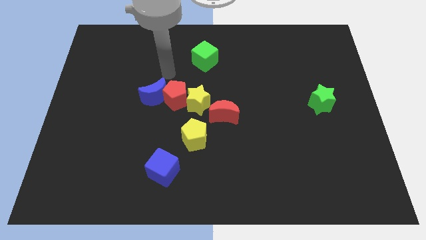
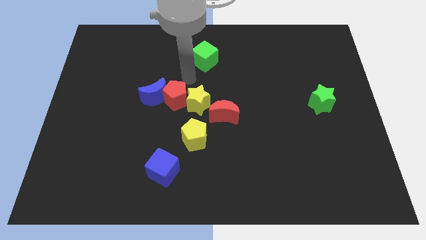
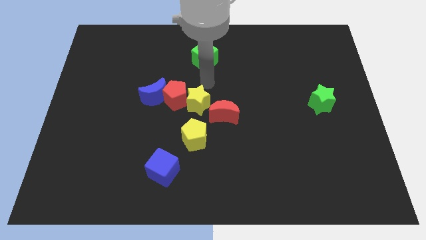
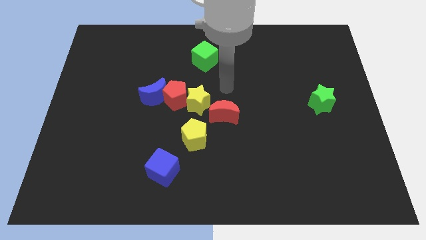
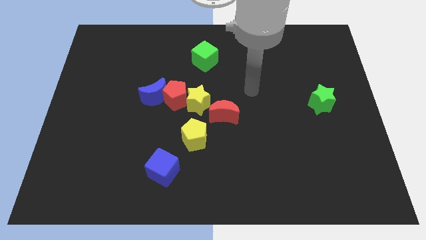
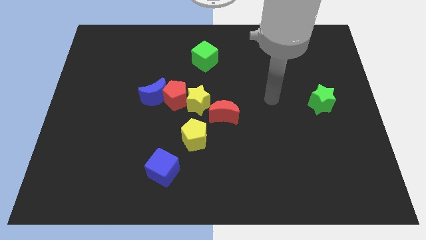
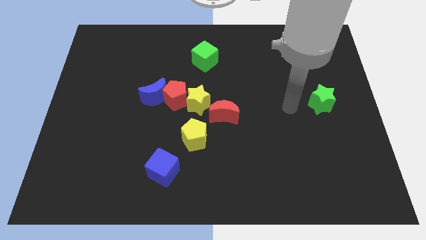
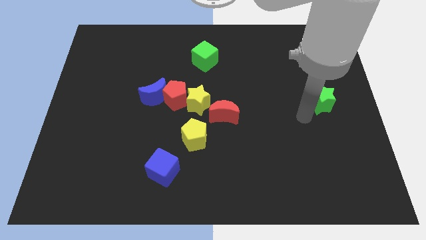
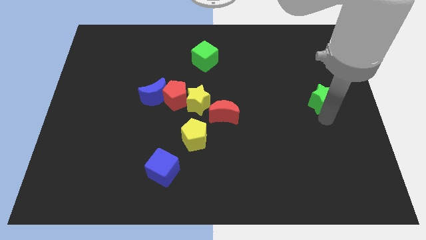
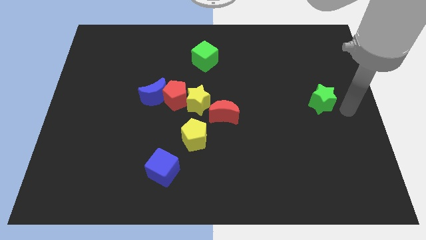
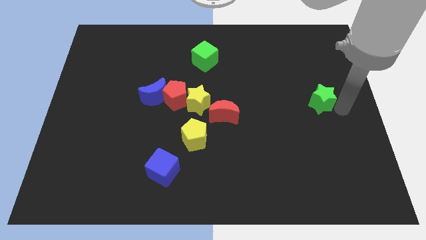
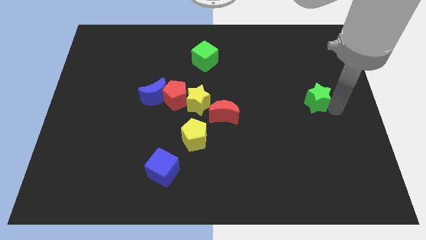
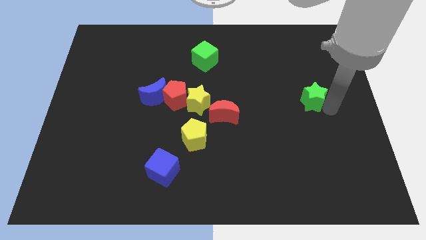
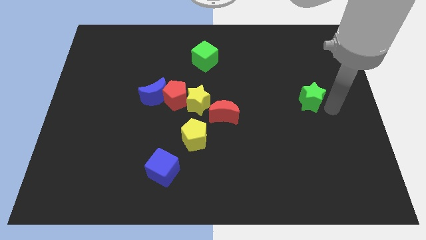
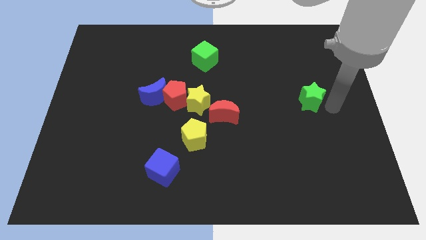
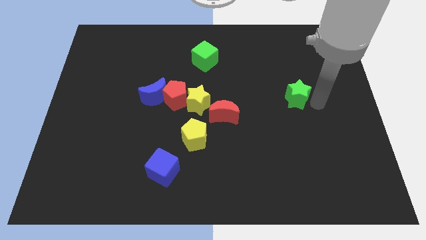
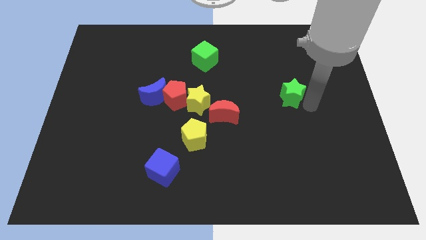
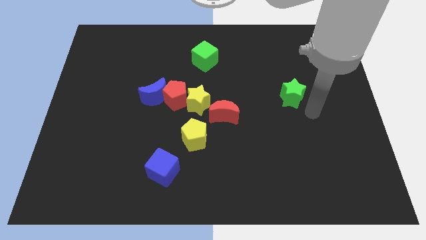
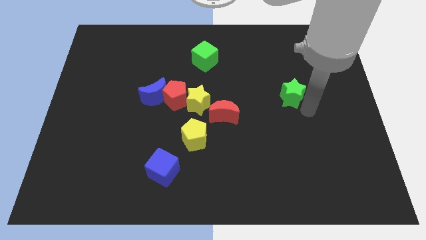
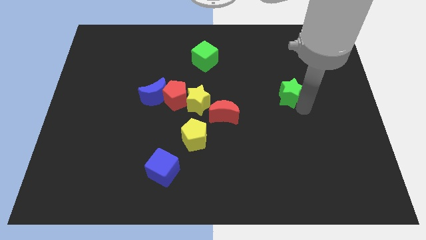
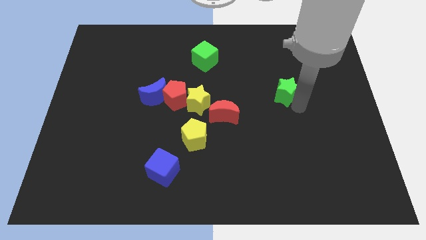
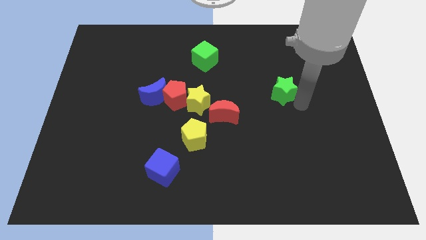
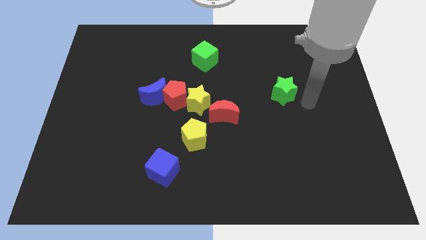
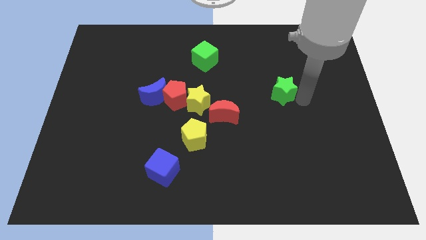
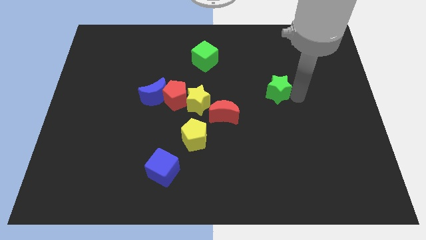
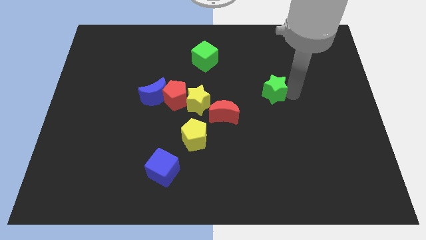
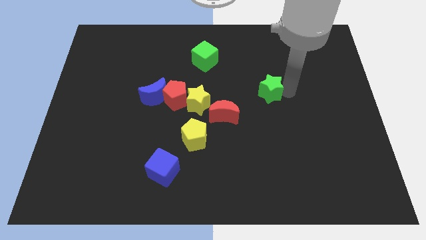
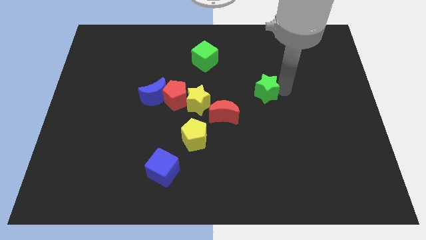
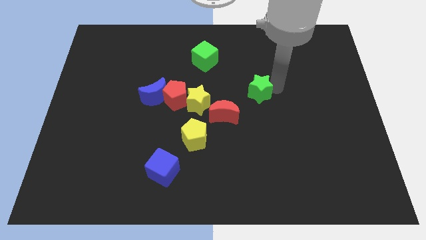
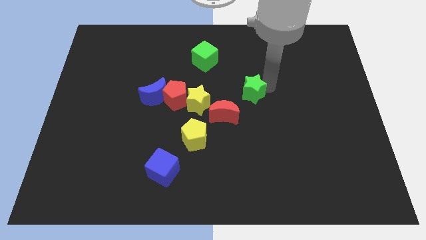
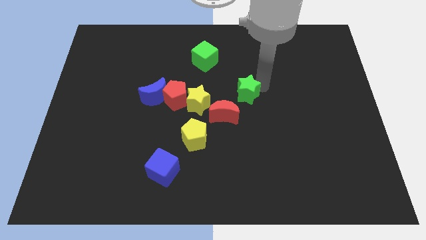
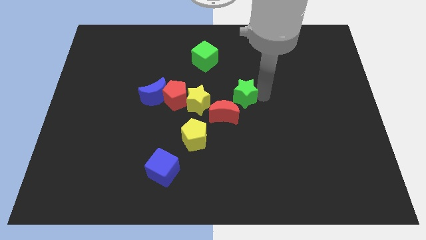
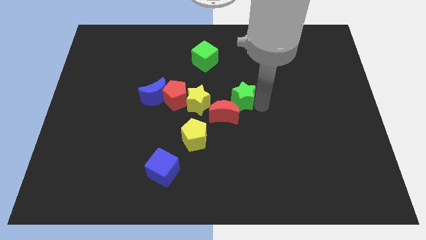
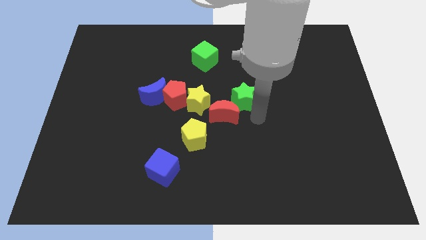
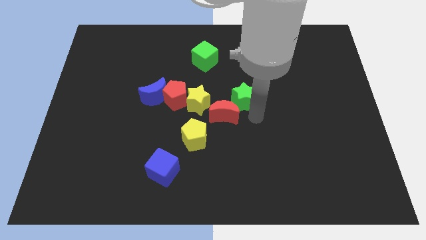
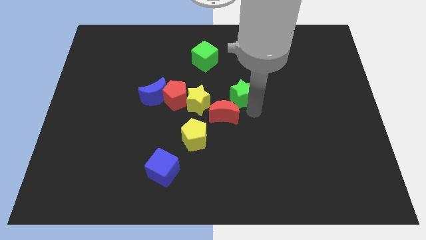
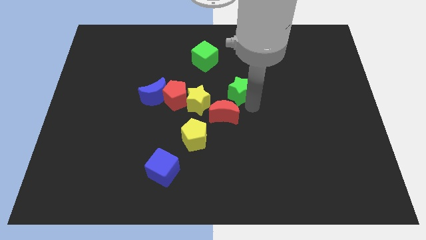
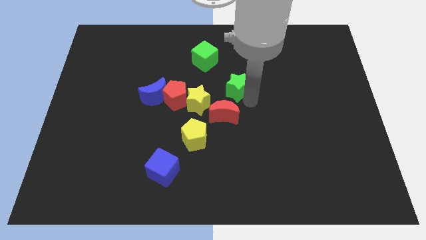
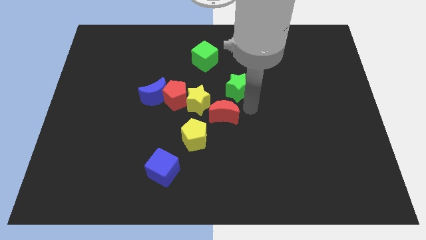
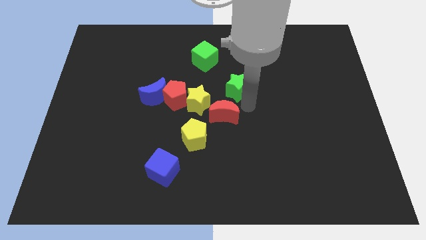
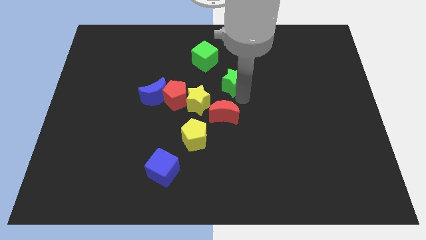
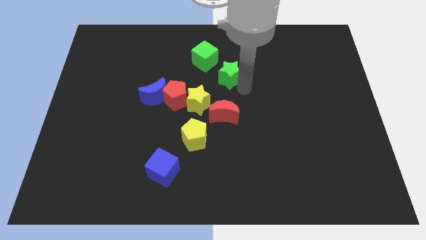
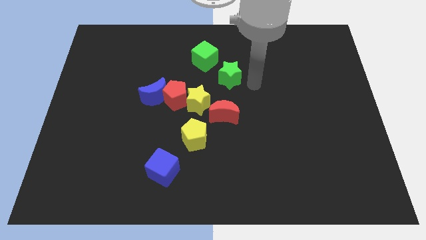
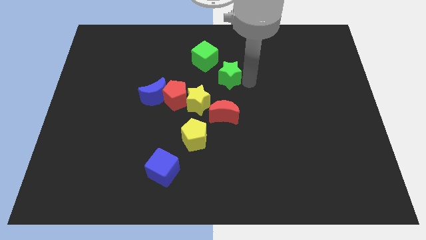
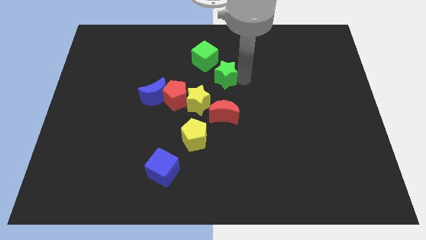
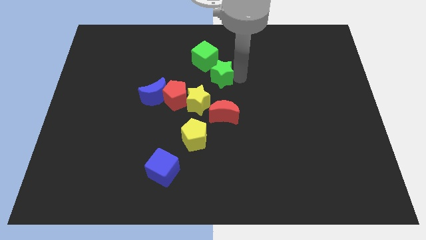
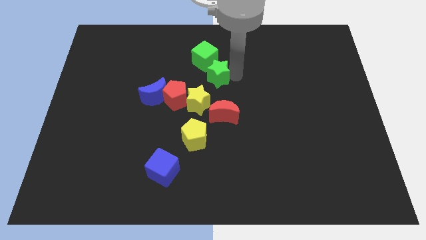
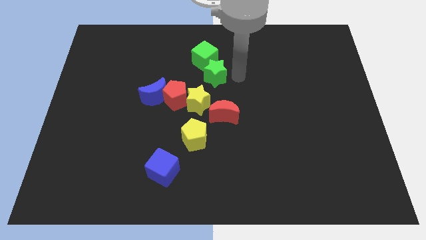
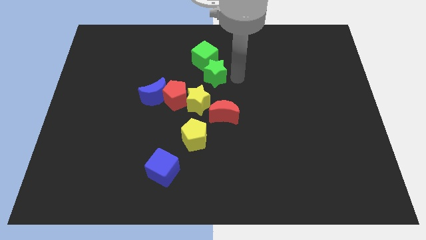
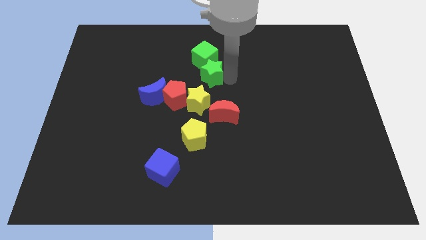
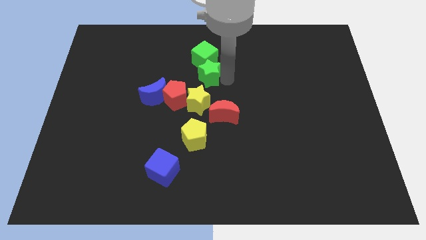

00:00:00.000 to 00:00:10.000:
move the green star diagonally down and to the left of the green cube

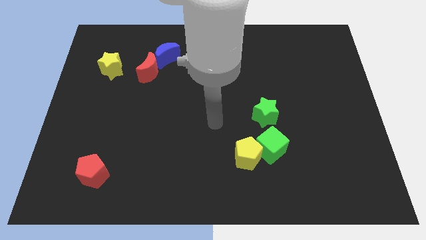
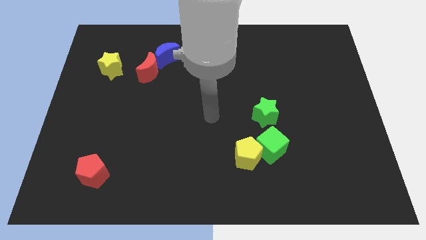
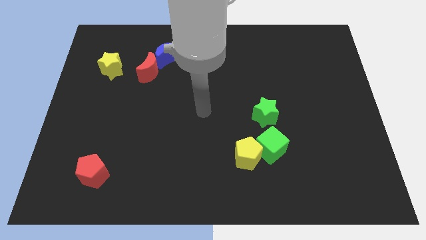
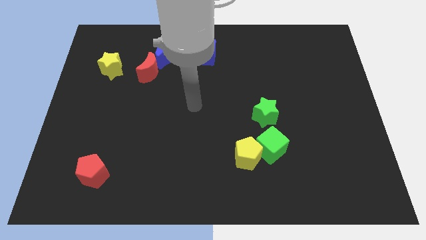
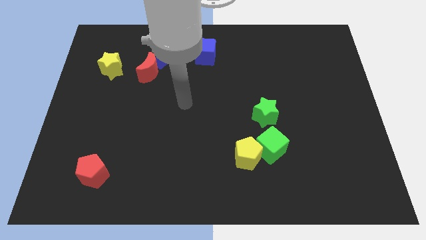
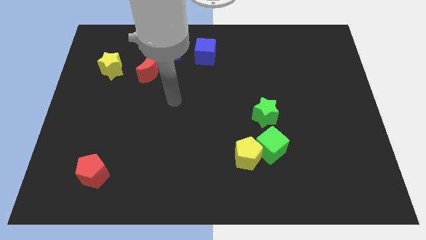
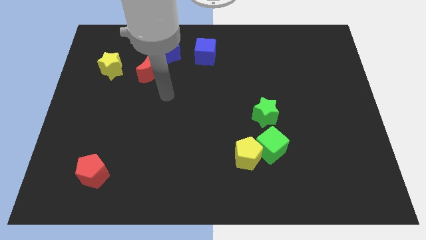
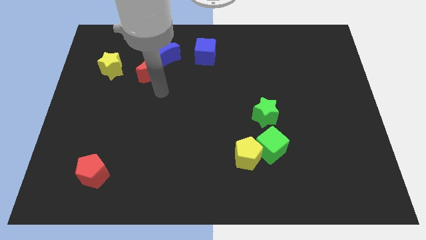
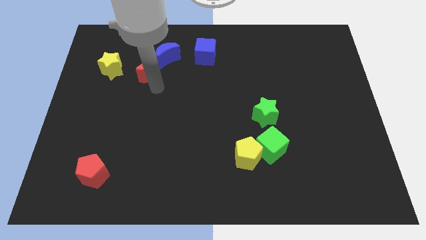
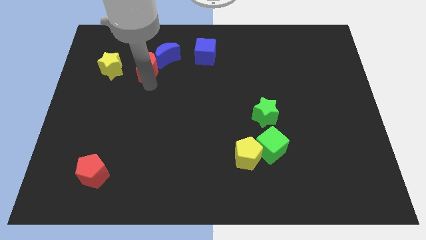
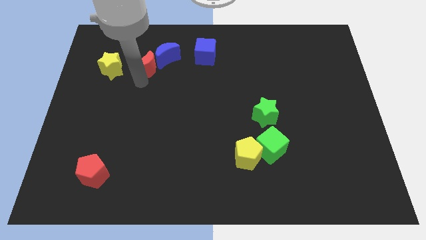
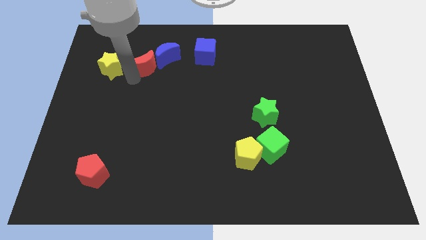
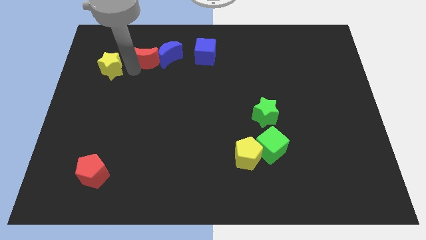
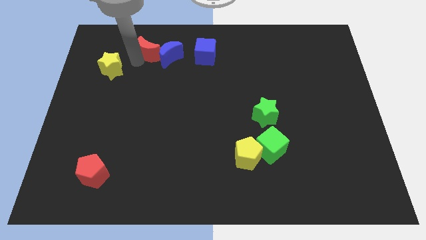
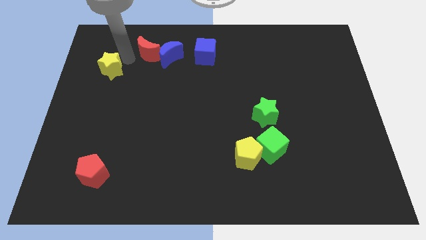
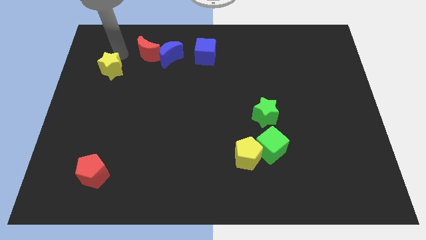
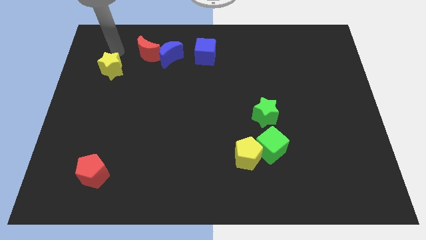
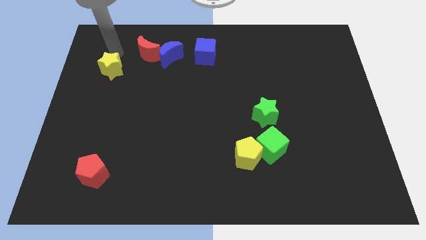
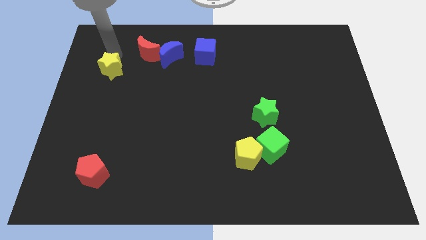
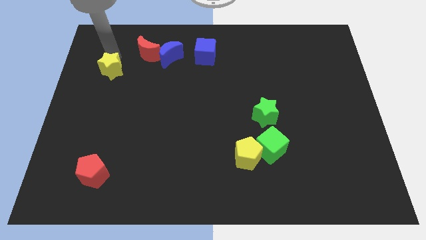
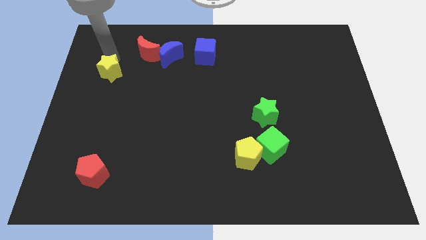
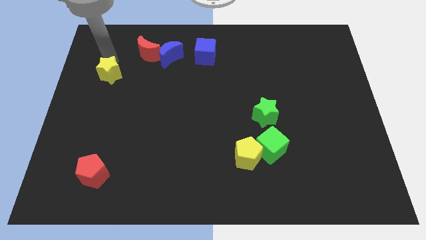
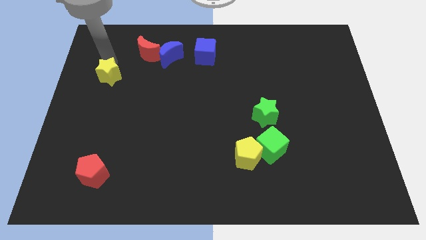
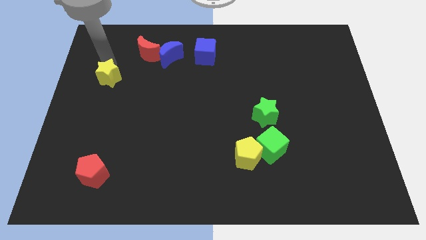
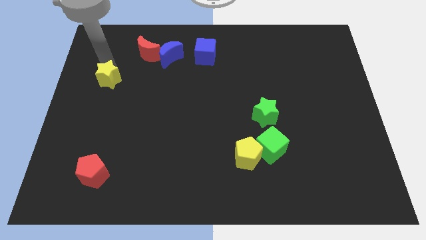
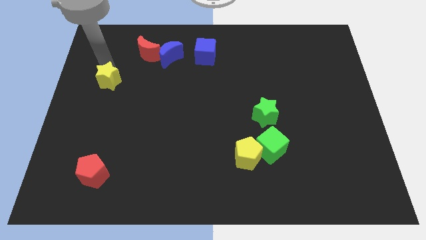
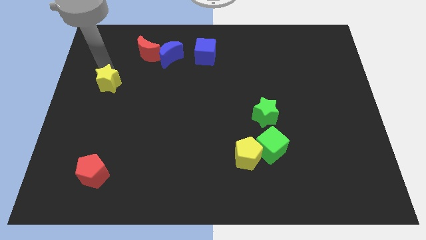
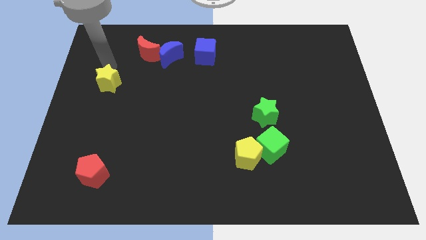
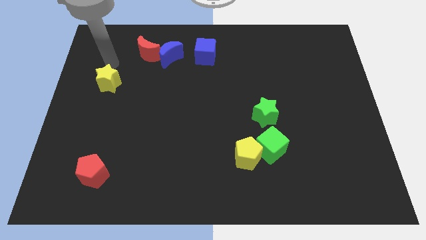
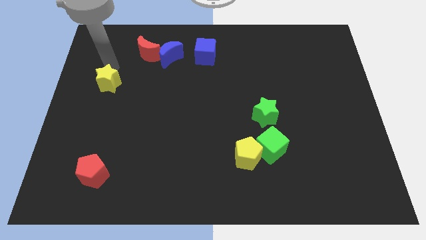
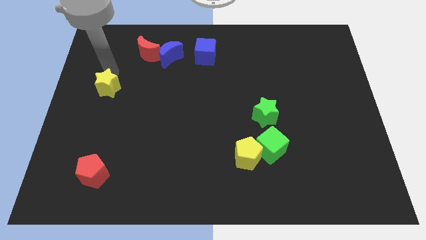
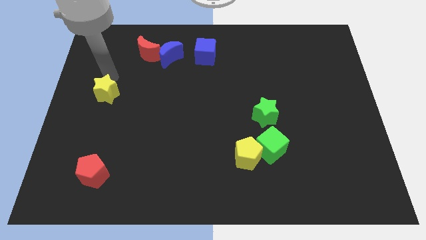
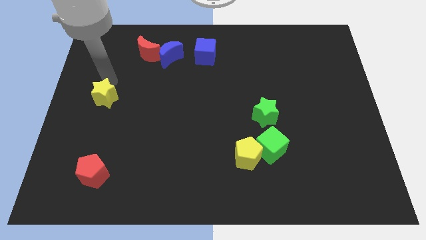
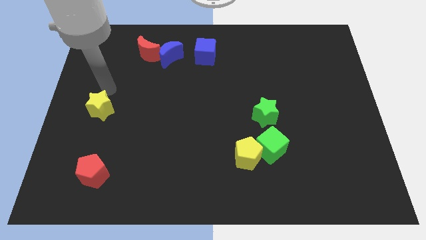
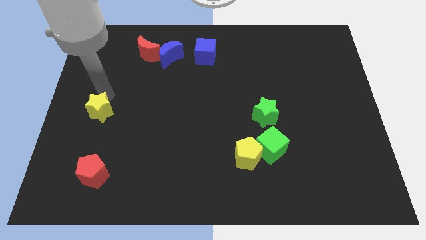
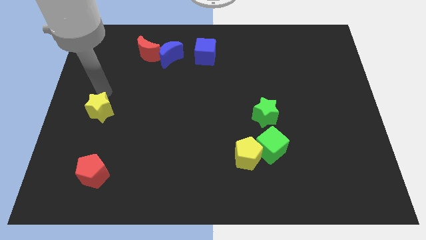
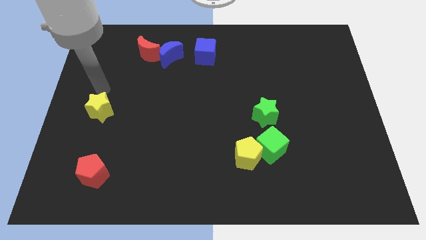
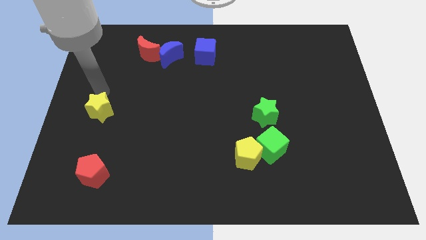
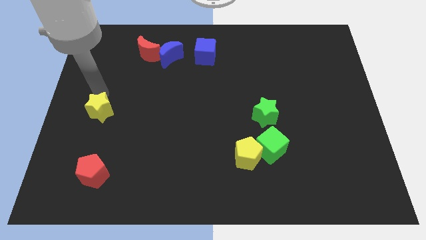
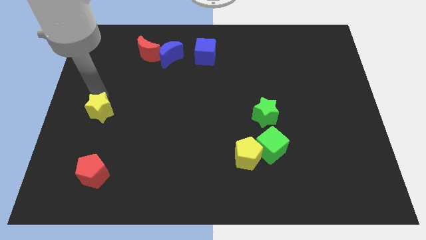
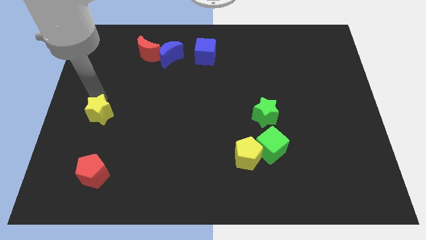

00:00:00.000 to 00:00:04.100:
move the yellow star to the top of the red pentagon
